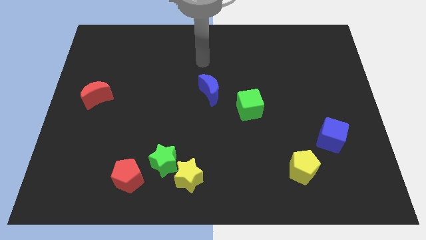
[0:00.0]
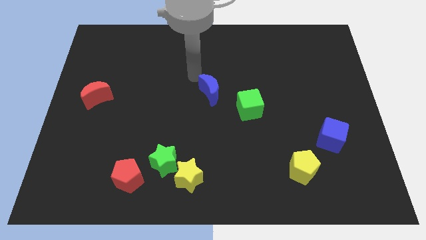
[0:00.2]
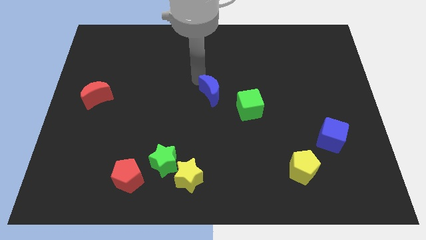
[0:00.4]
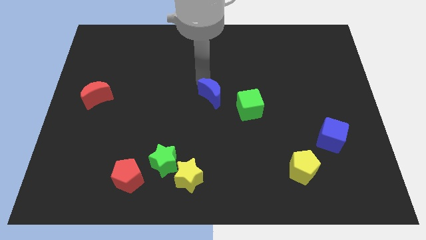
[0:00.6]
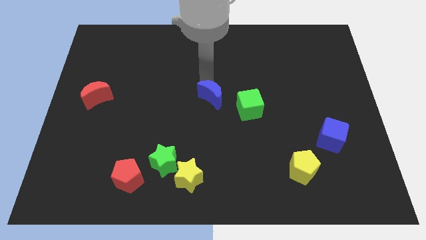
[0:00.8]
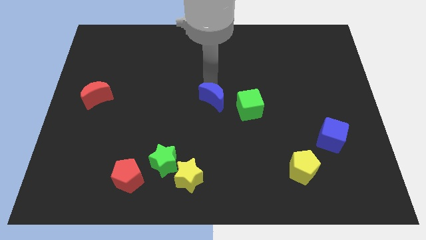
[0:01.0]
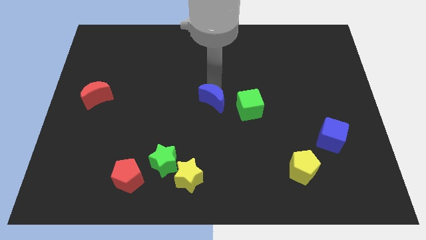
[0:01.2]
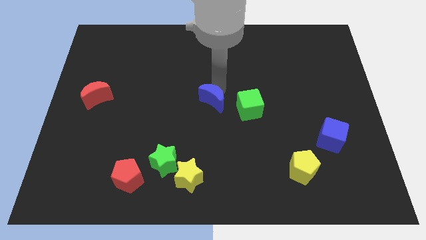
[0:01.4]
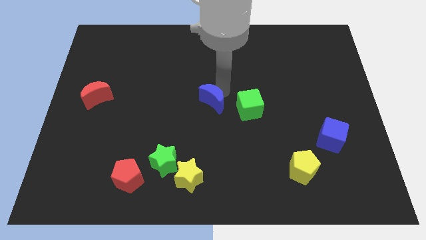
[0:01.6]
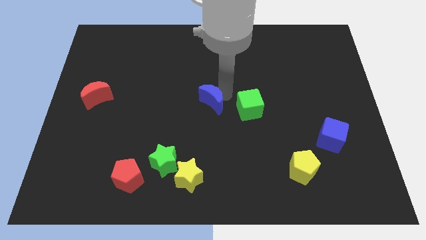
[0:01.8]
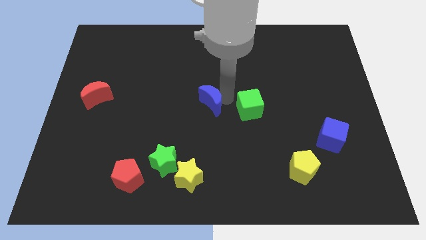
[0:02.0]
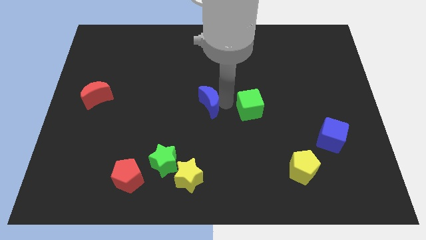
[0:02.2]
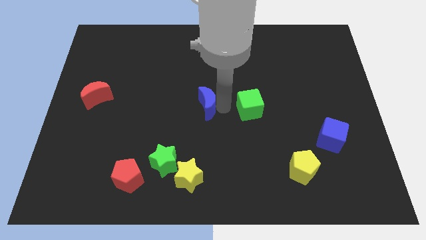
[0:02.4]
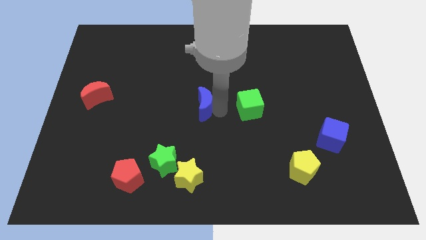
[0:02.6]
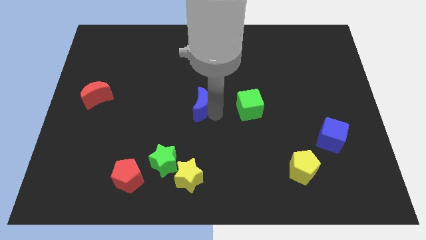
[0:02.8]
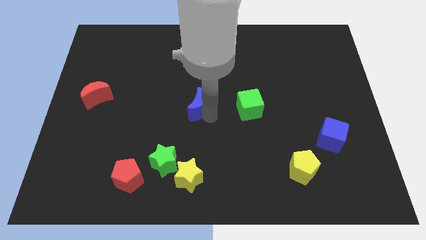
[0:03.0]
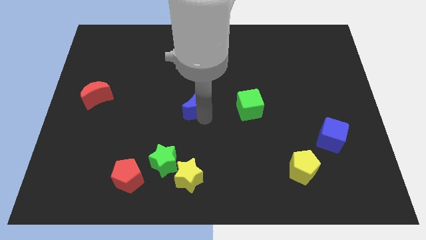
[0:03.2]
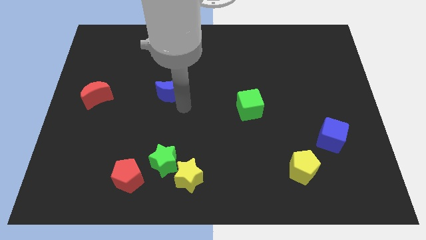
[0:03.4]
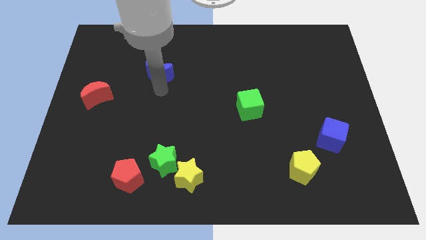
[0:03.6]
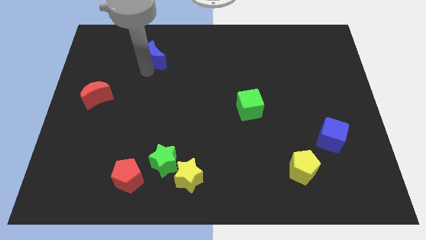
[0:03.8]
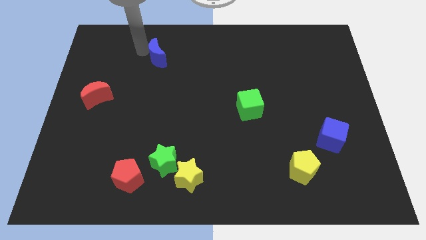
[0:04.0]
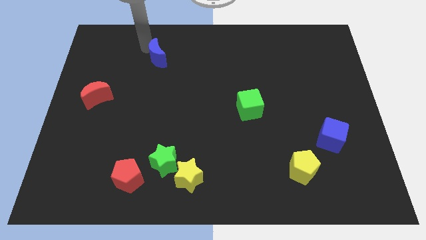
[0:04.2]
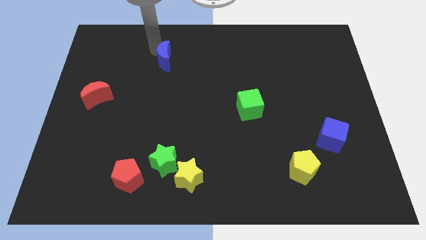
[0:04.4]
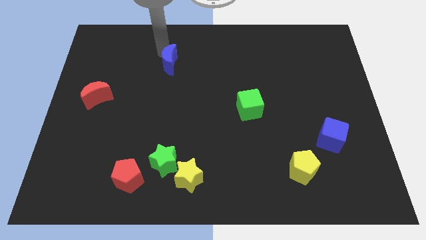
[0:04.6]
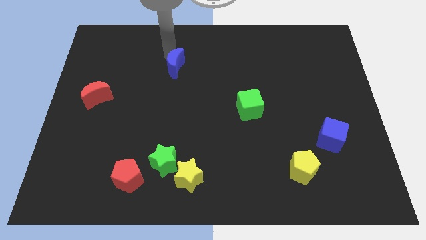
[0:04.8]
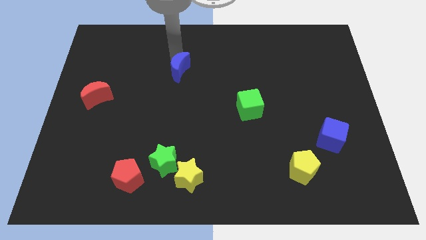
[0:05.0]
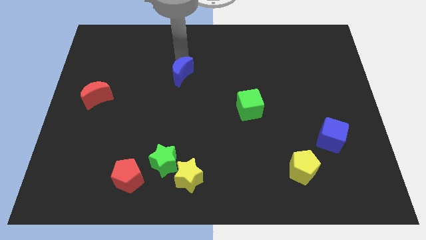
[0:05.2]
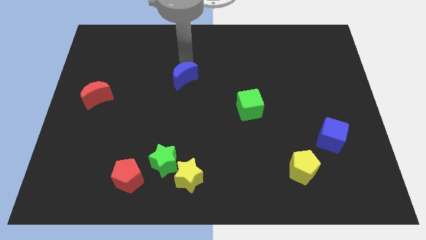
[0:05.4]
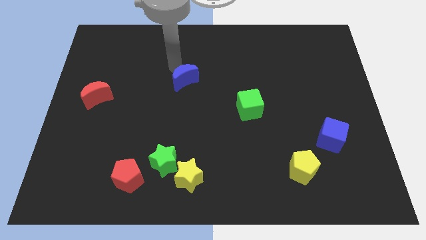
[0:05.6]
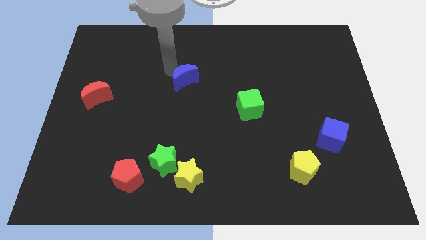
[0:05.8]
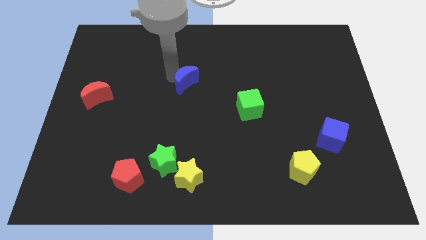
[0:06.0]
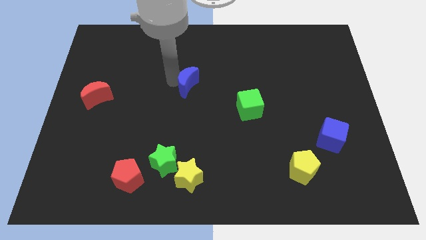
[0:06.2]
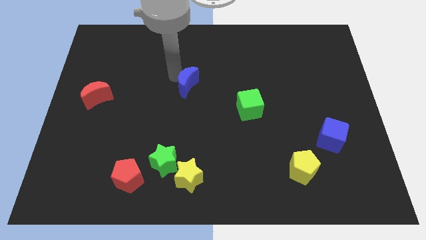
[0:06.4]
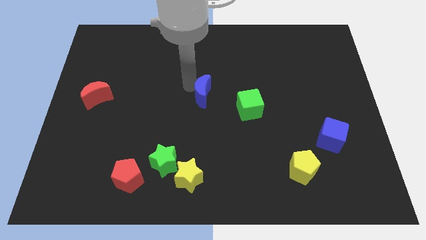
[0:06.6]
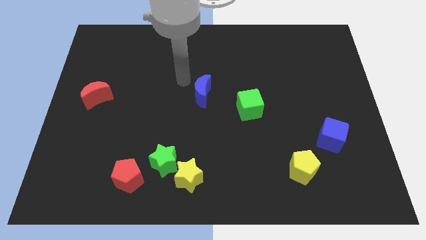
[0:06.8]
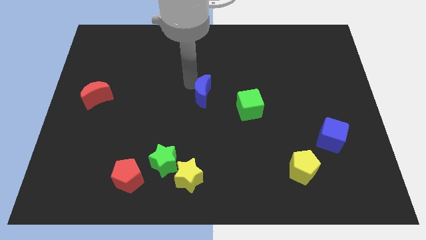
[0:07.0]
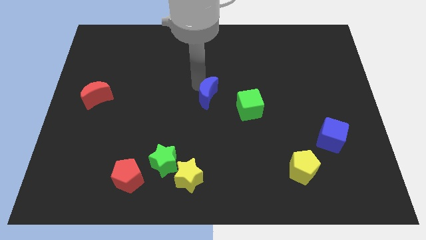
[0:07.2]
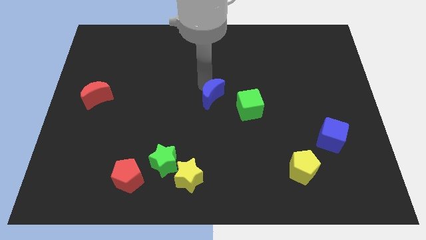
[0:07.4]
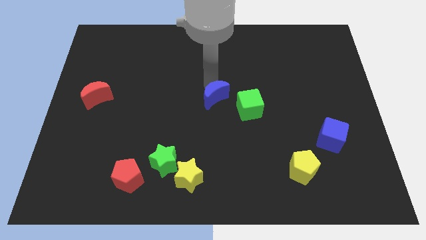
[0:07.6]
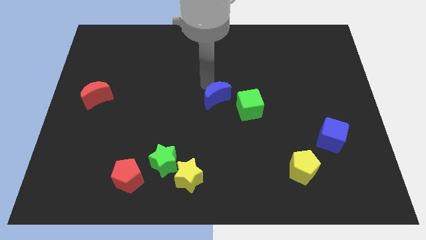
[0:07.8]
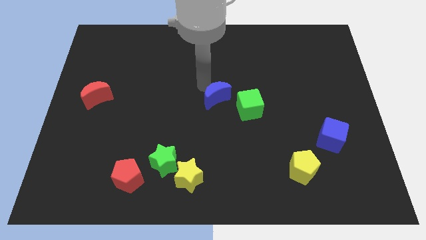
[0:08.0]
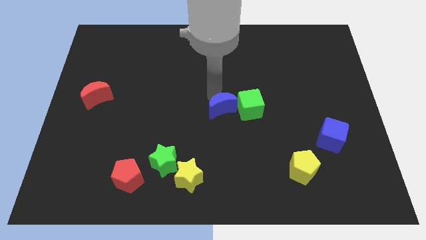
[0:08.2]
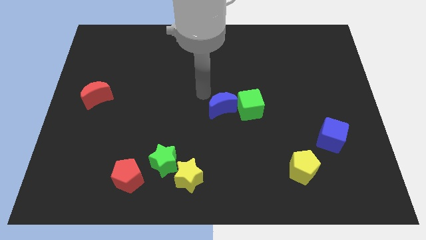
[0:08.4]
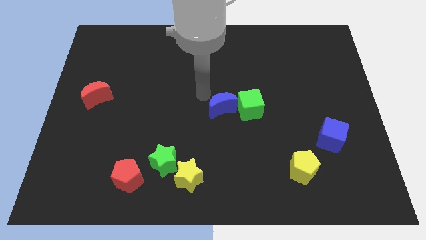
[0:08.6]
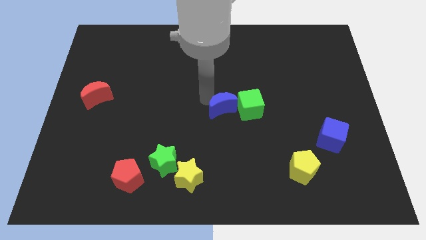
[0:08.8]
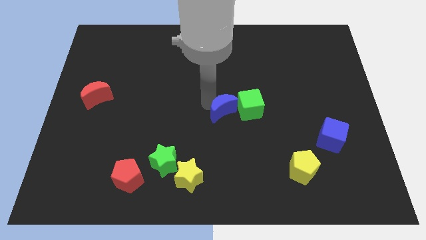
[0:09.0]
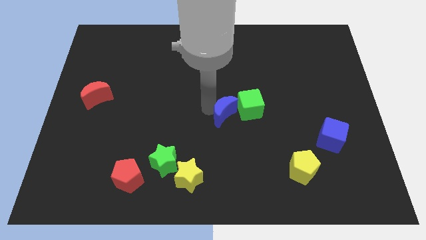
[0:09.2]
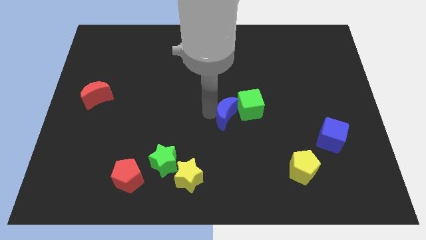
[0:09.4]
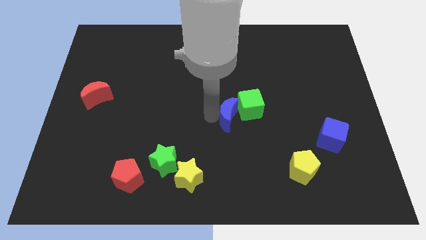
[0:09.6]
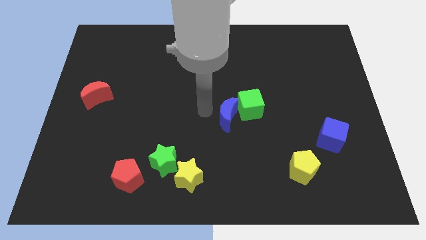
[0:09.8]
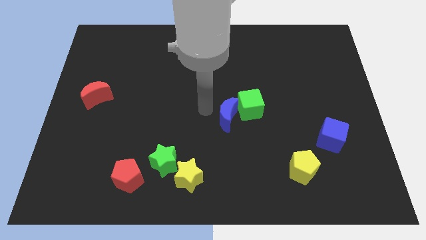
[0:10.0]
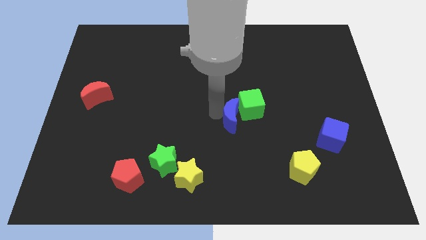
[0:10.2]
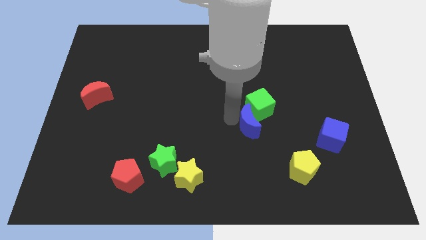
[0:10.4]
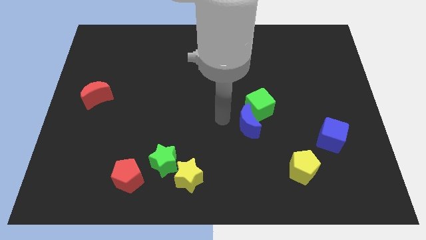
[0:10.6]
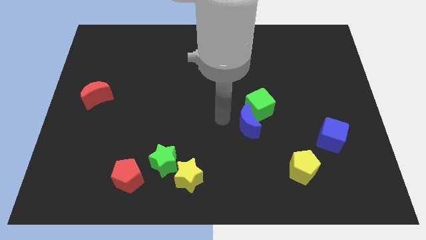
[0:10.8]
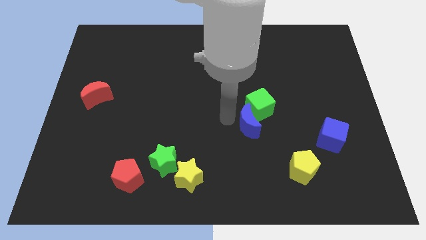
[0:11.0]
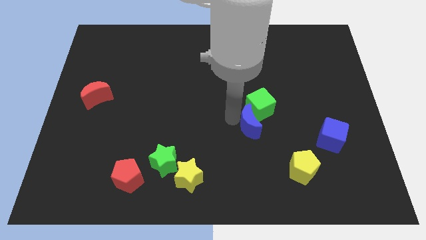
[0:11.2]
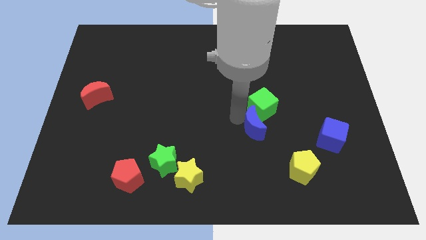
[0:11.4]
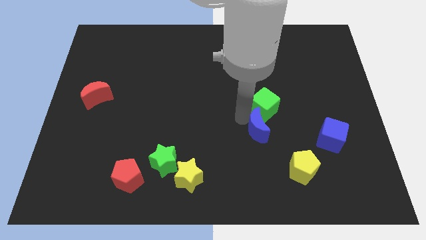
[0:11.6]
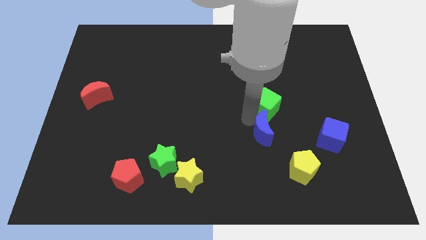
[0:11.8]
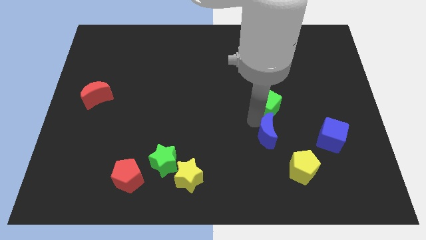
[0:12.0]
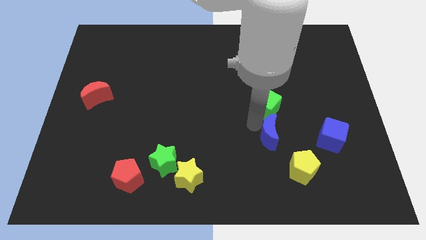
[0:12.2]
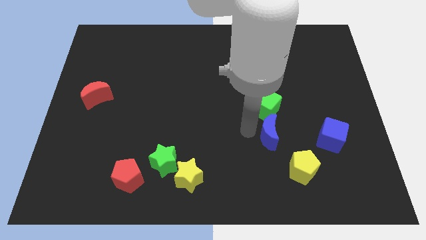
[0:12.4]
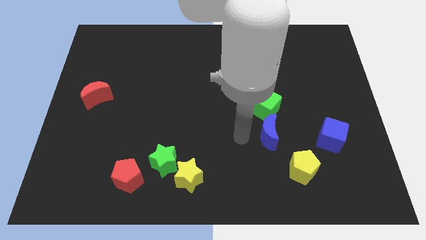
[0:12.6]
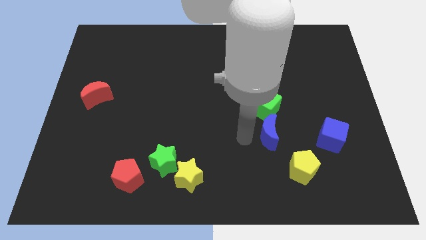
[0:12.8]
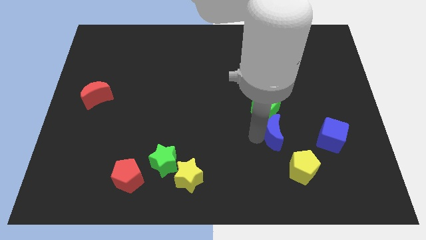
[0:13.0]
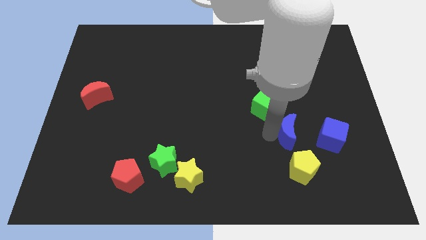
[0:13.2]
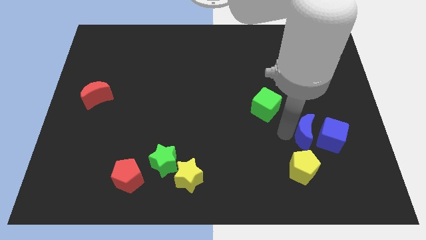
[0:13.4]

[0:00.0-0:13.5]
push the blue moon next to the blue cube
